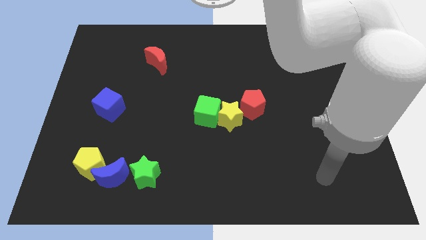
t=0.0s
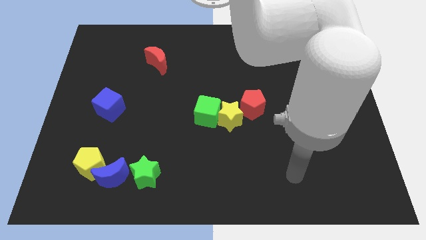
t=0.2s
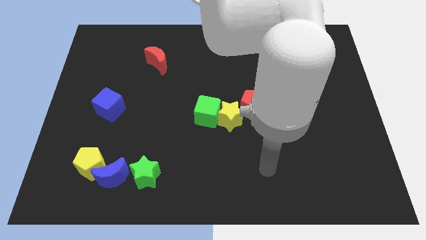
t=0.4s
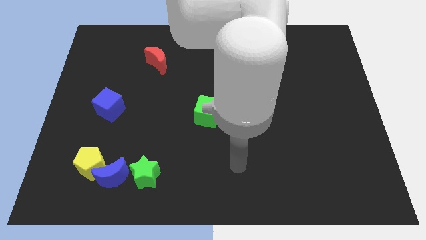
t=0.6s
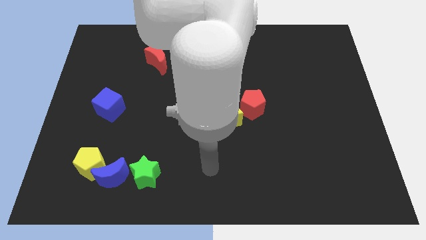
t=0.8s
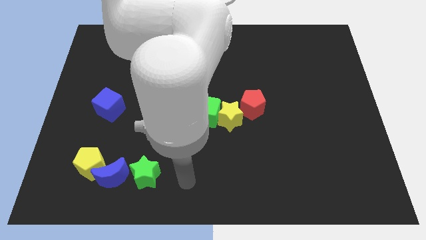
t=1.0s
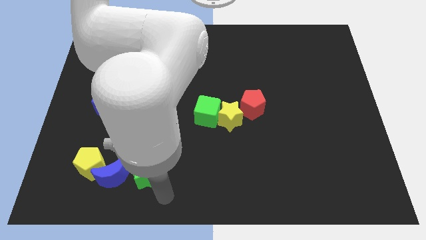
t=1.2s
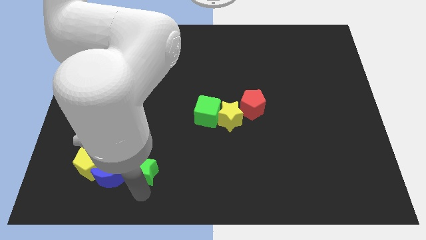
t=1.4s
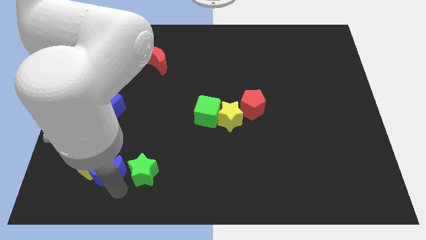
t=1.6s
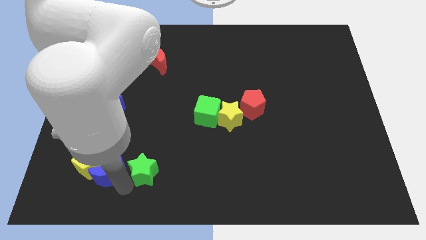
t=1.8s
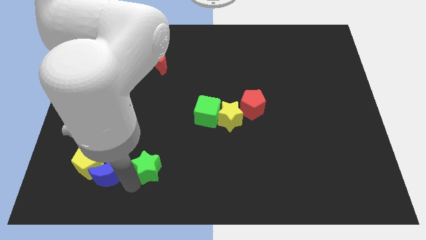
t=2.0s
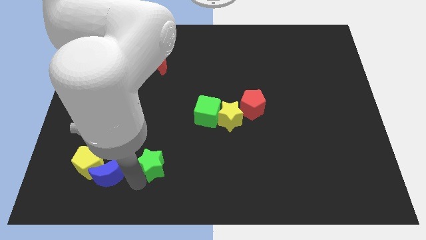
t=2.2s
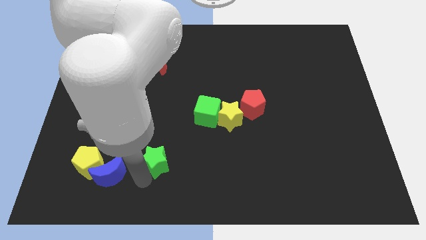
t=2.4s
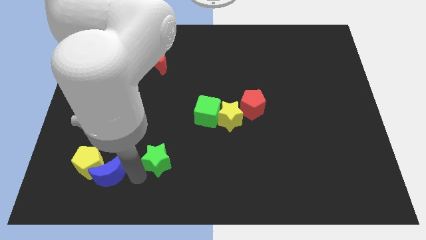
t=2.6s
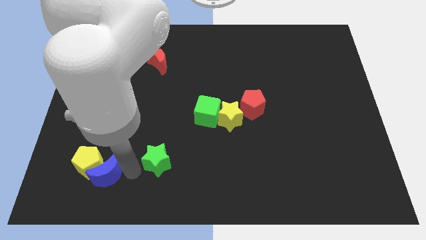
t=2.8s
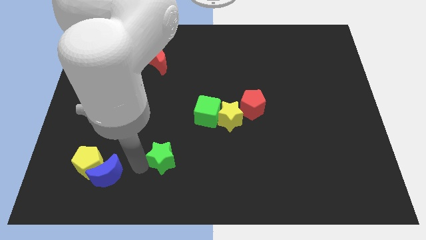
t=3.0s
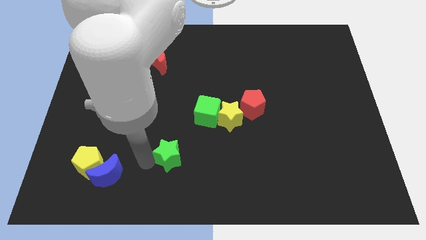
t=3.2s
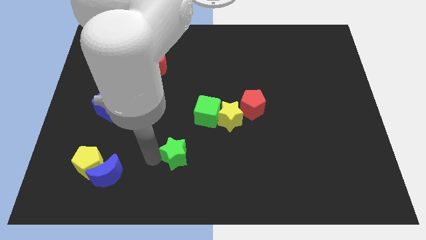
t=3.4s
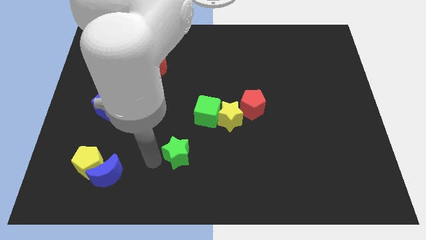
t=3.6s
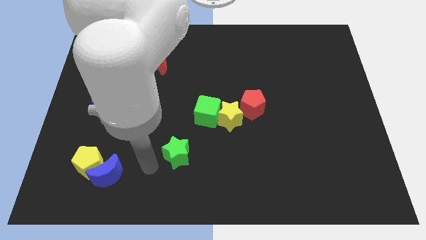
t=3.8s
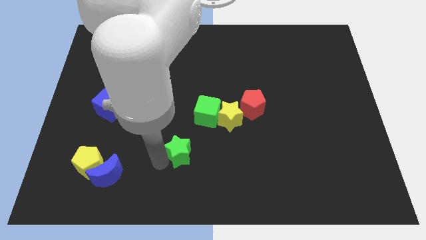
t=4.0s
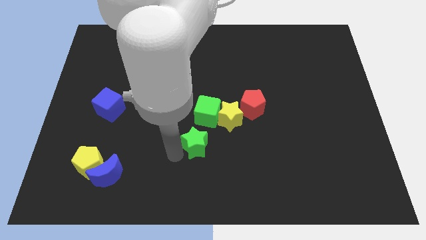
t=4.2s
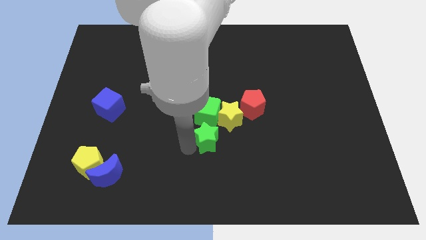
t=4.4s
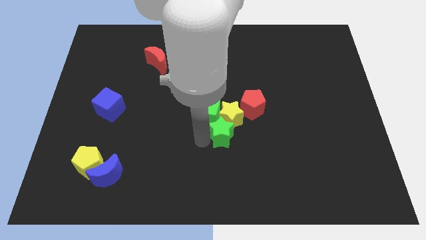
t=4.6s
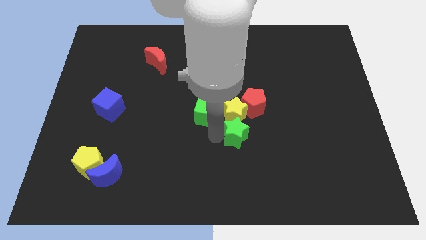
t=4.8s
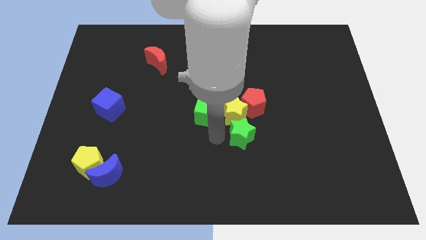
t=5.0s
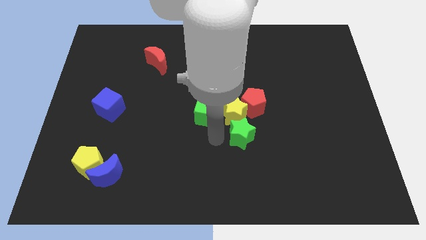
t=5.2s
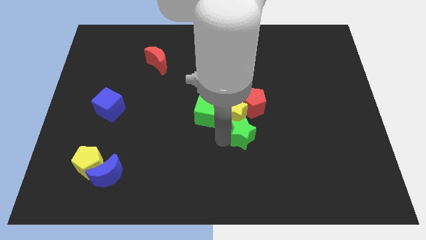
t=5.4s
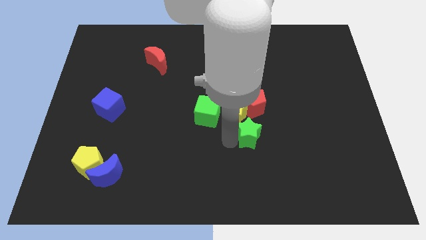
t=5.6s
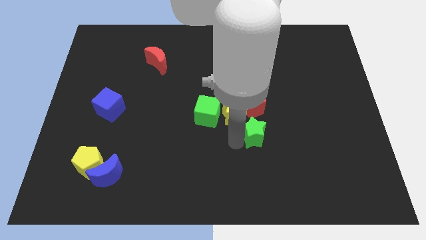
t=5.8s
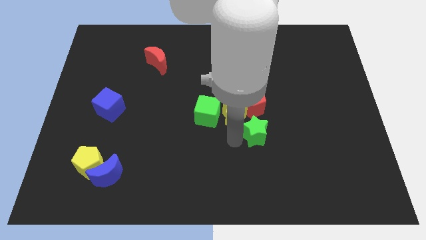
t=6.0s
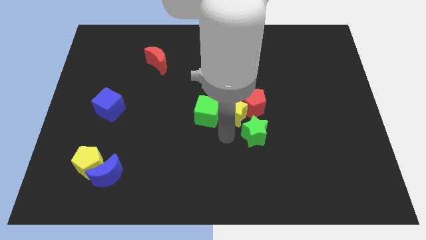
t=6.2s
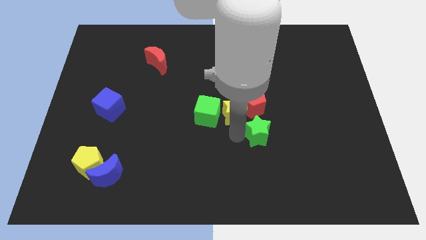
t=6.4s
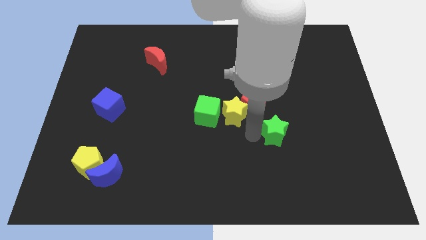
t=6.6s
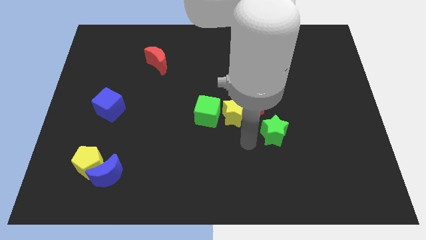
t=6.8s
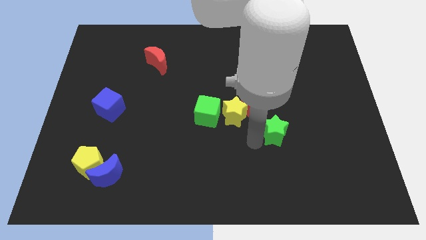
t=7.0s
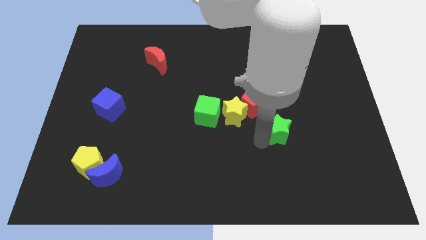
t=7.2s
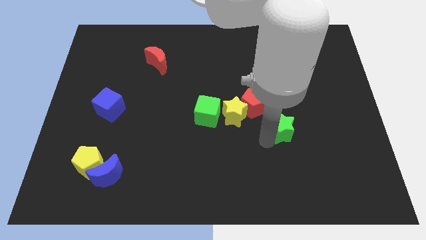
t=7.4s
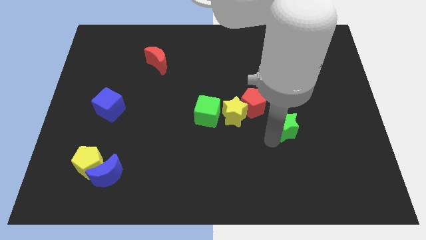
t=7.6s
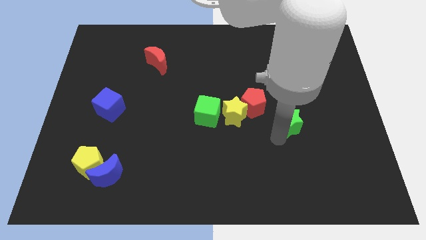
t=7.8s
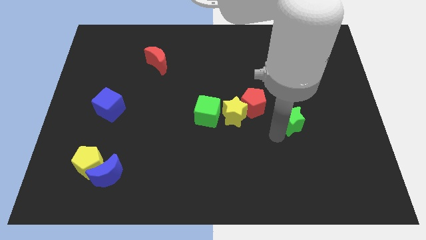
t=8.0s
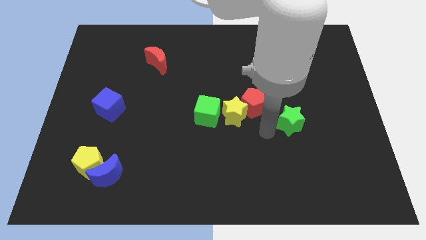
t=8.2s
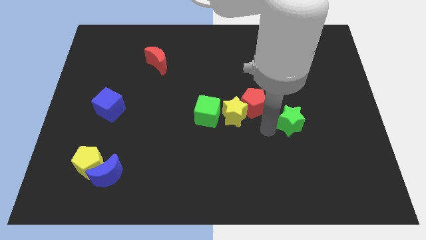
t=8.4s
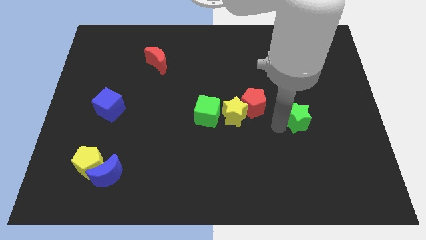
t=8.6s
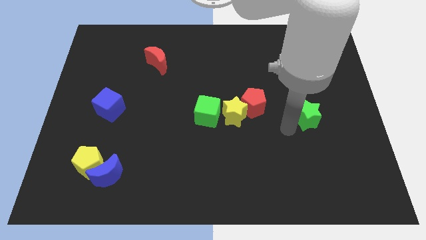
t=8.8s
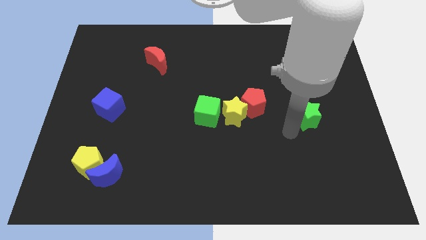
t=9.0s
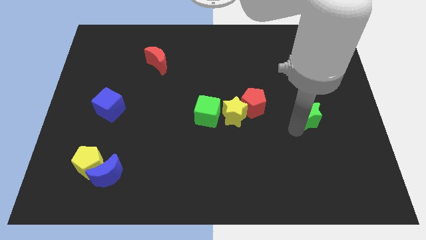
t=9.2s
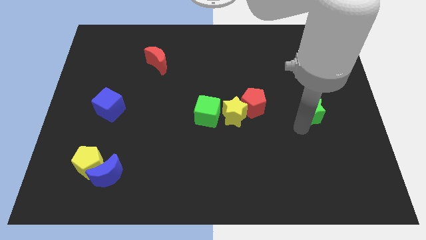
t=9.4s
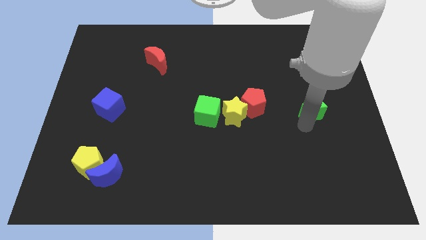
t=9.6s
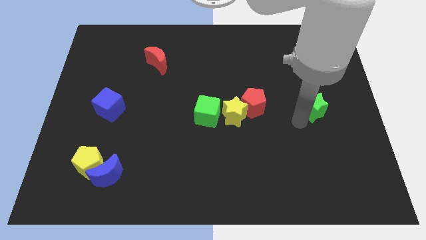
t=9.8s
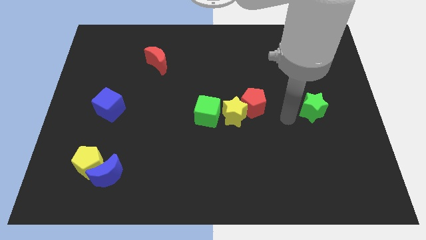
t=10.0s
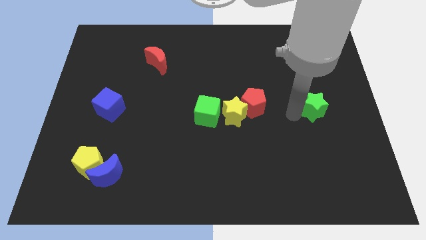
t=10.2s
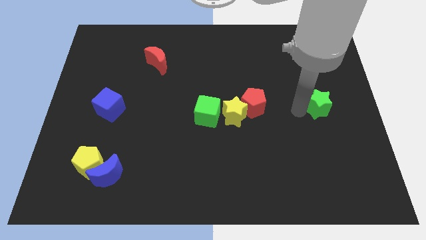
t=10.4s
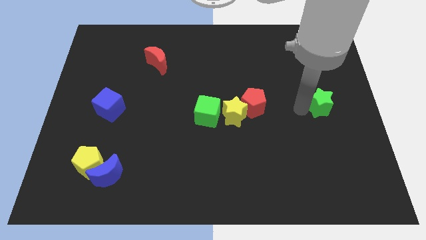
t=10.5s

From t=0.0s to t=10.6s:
move the green star to the right side of the board

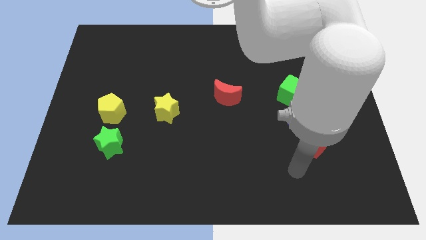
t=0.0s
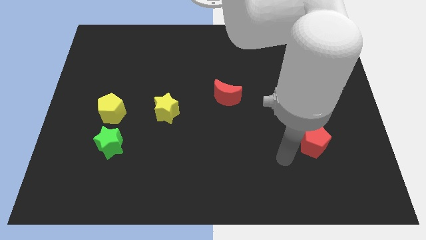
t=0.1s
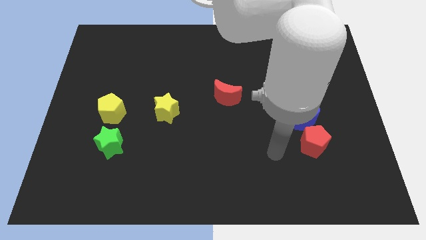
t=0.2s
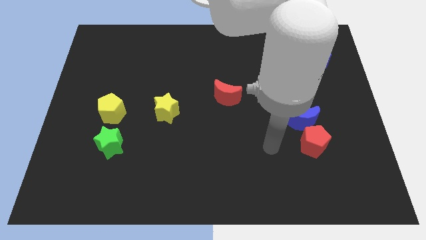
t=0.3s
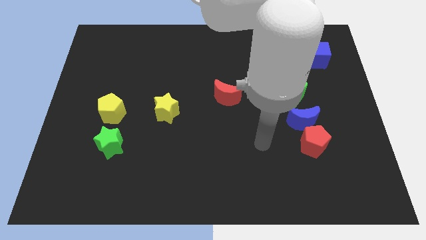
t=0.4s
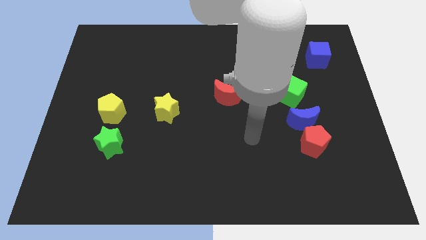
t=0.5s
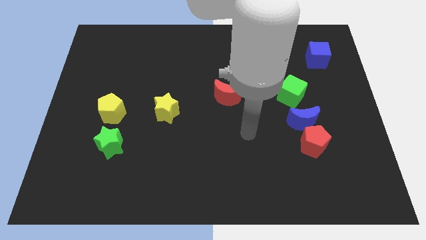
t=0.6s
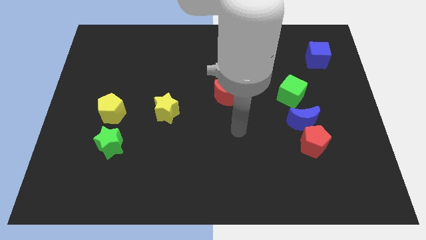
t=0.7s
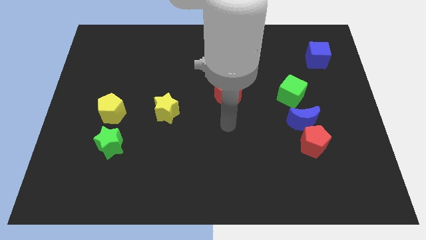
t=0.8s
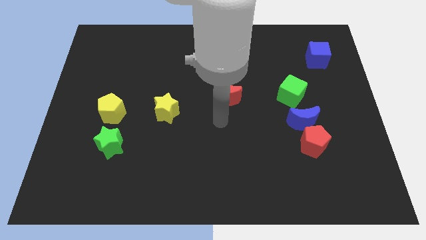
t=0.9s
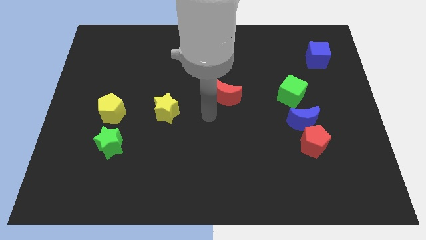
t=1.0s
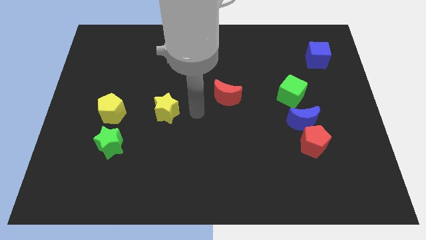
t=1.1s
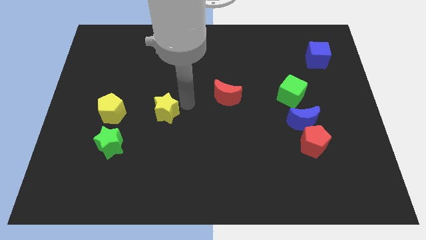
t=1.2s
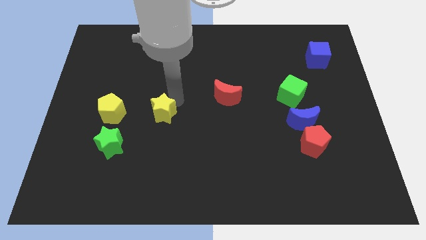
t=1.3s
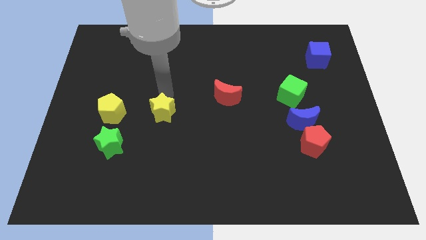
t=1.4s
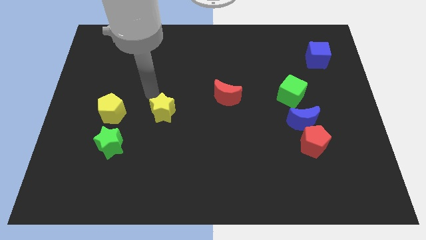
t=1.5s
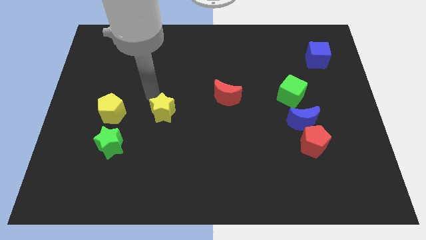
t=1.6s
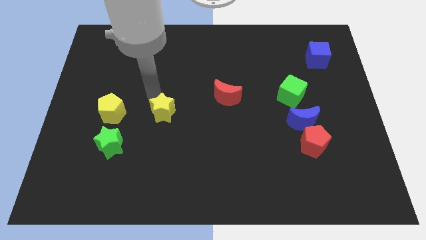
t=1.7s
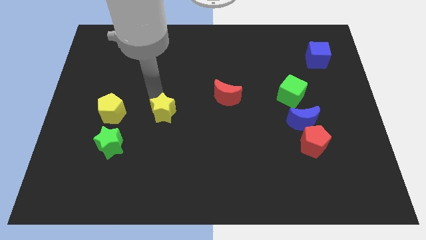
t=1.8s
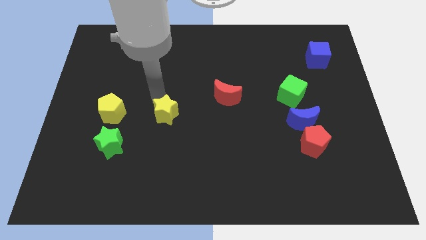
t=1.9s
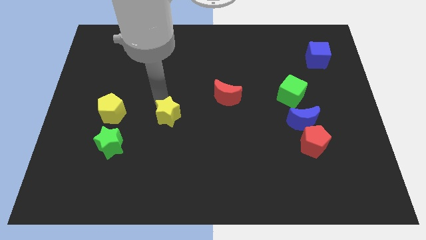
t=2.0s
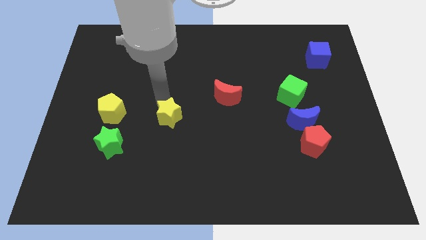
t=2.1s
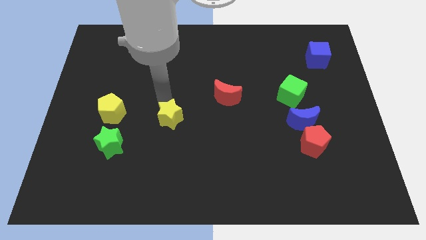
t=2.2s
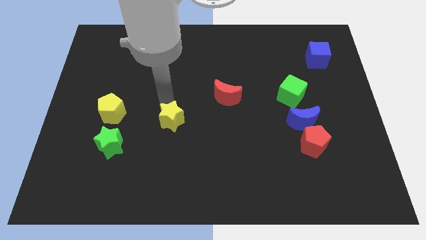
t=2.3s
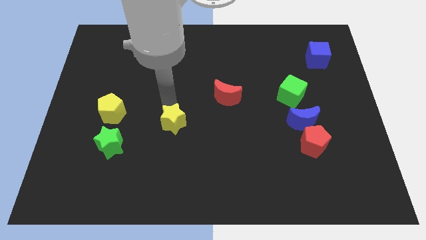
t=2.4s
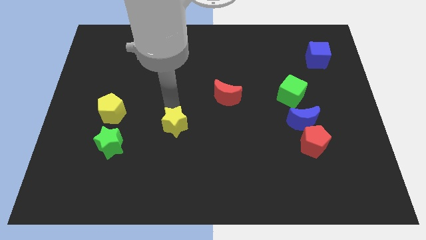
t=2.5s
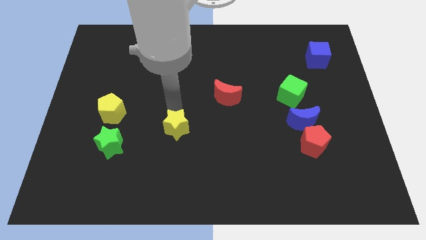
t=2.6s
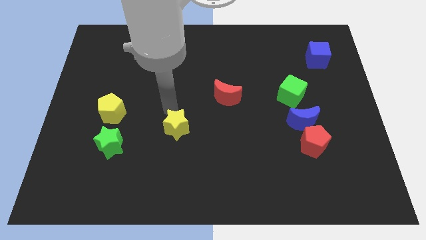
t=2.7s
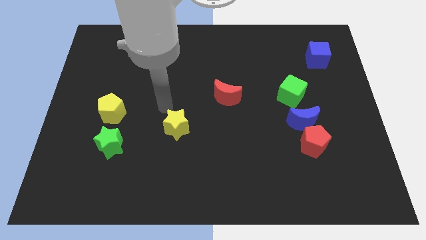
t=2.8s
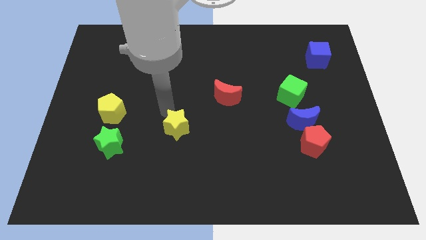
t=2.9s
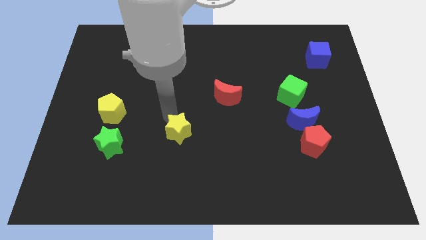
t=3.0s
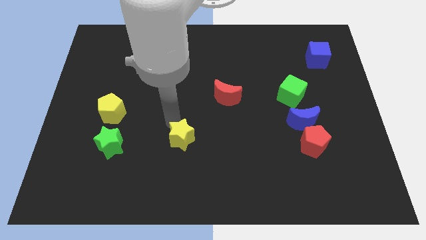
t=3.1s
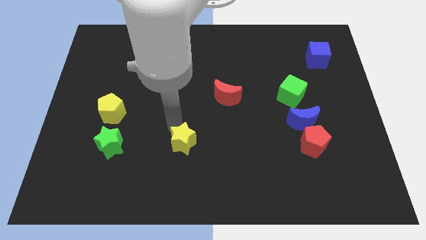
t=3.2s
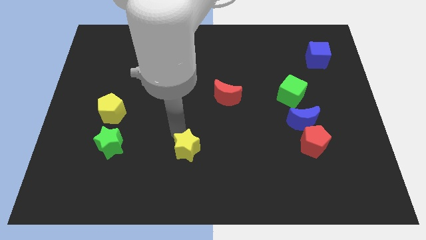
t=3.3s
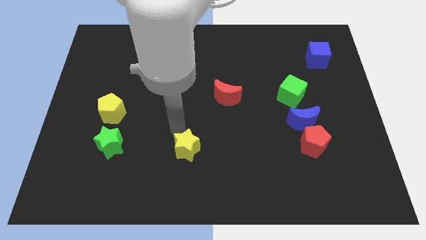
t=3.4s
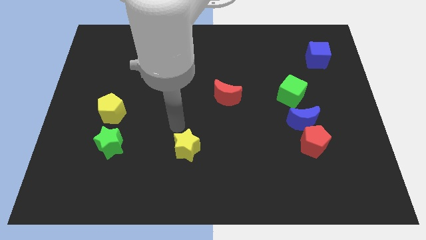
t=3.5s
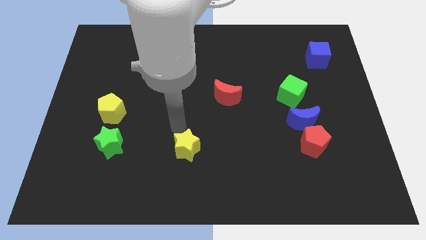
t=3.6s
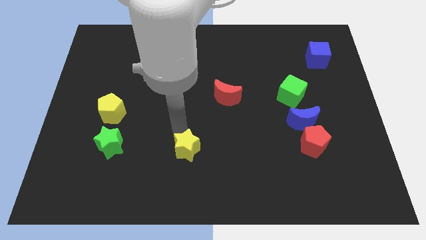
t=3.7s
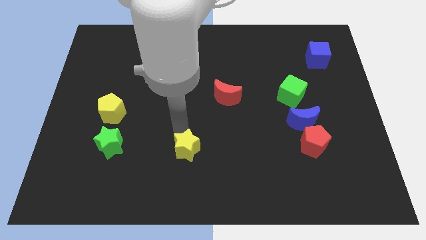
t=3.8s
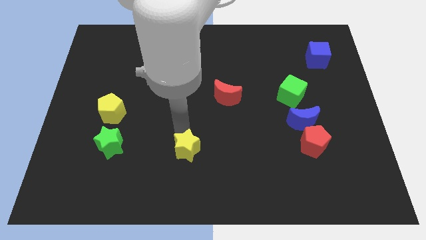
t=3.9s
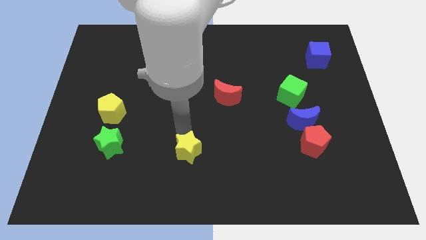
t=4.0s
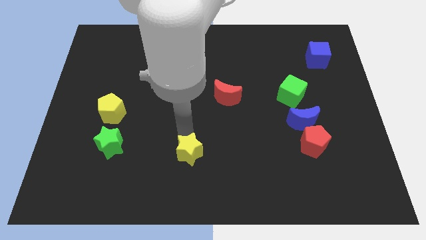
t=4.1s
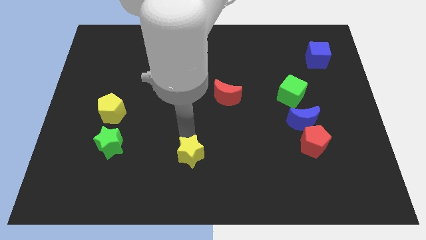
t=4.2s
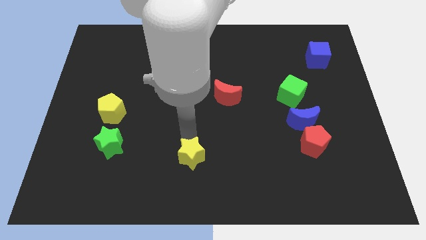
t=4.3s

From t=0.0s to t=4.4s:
push the yellow star to the bottom
